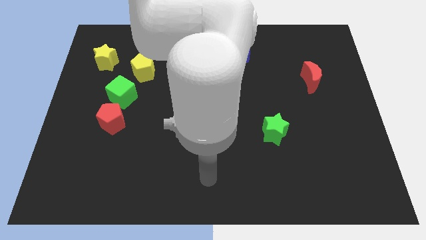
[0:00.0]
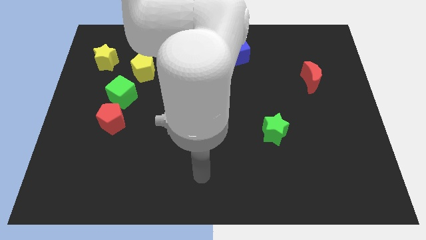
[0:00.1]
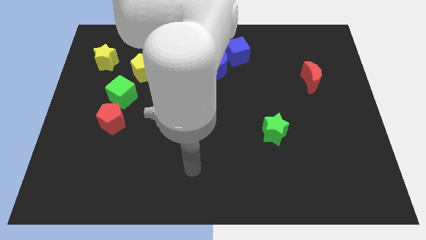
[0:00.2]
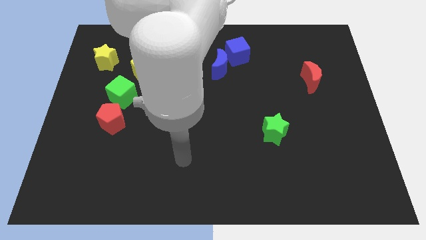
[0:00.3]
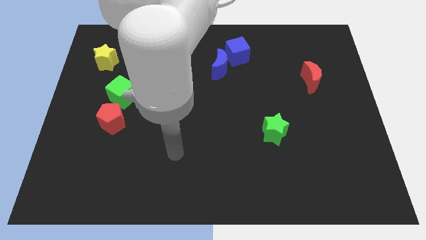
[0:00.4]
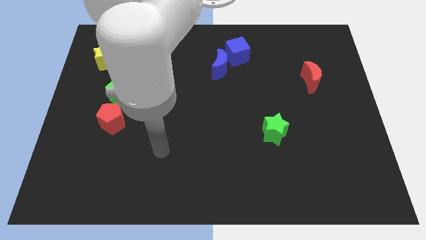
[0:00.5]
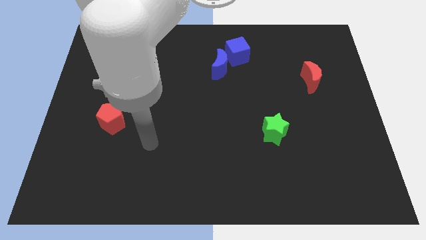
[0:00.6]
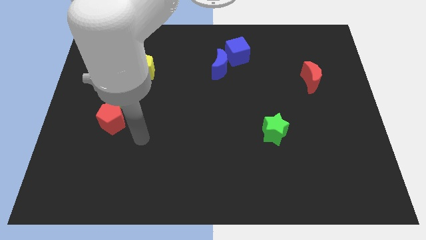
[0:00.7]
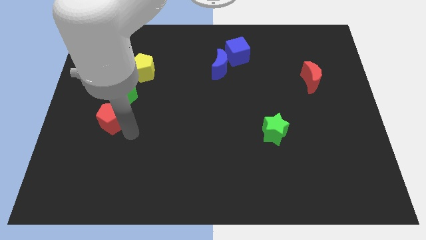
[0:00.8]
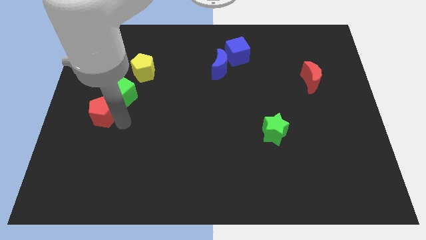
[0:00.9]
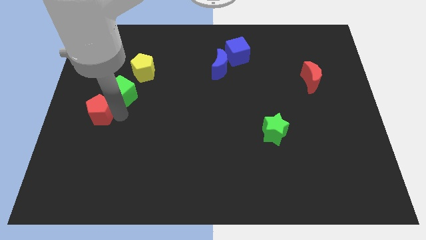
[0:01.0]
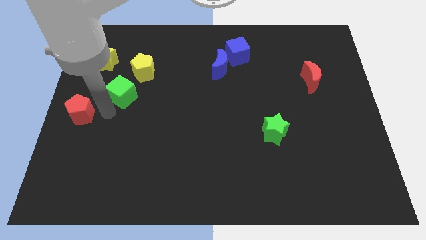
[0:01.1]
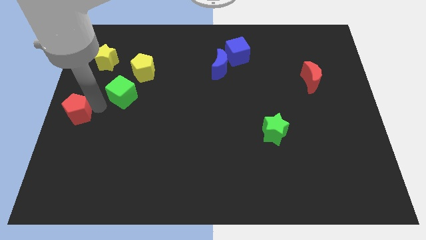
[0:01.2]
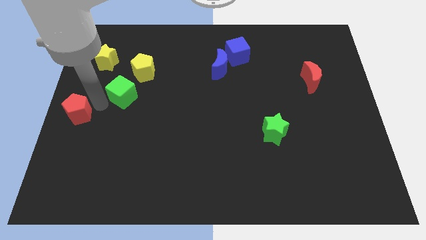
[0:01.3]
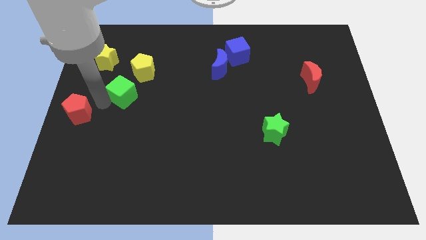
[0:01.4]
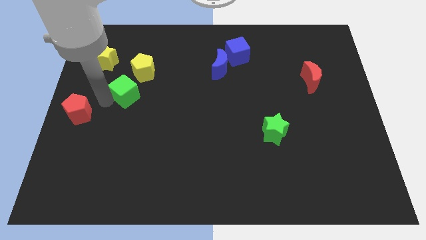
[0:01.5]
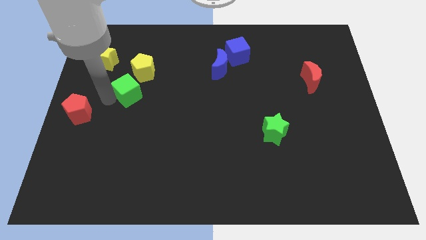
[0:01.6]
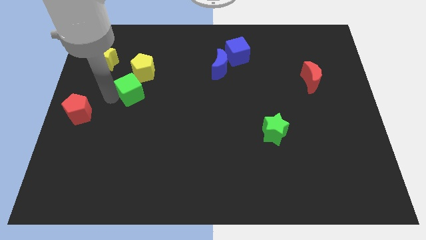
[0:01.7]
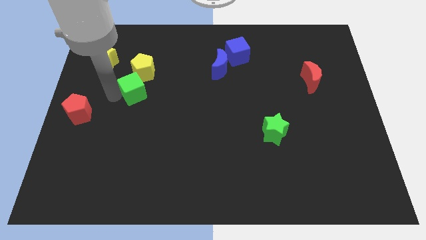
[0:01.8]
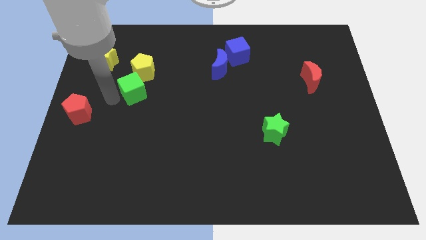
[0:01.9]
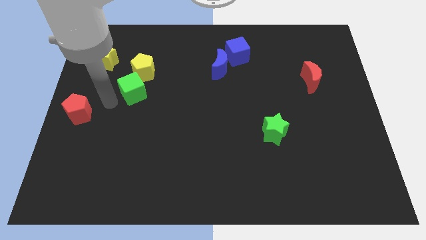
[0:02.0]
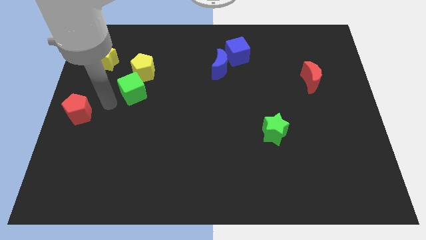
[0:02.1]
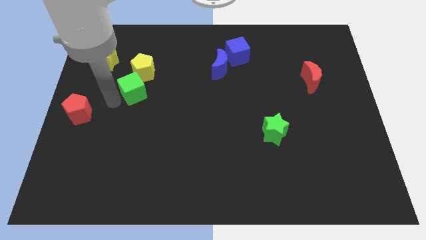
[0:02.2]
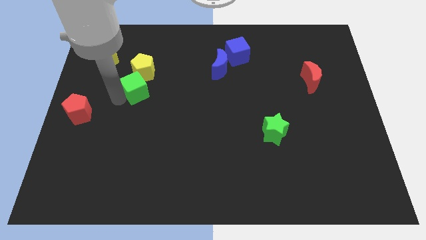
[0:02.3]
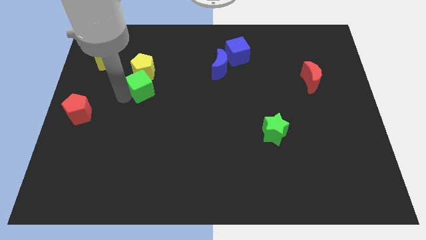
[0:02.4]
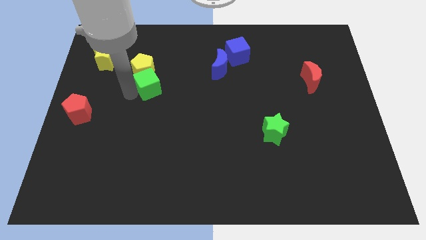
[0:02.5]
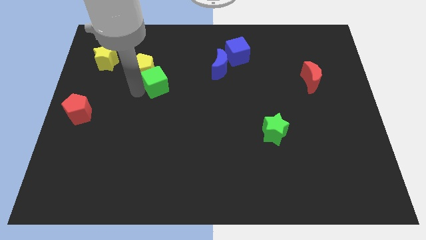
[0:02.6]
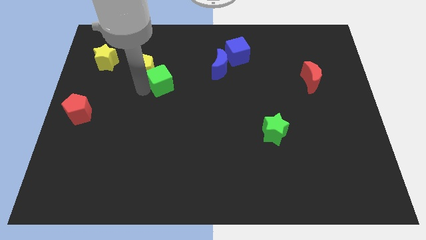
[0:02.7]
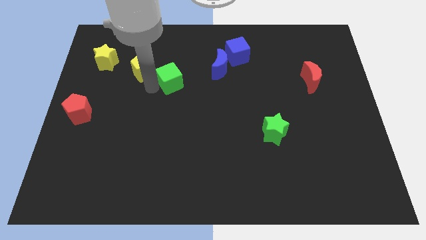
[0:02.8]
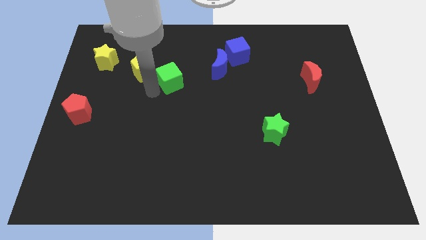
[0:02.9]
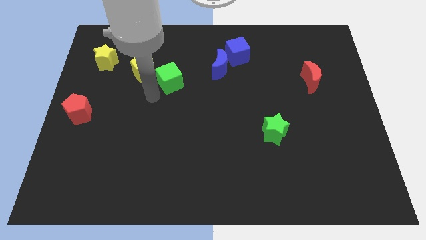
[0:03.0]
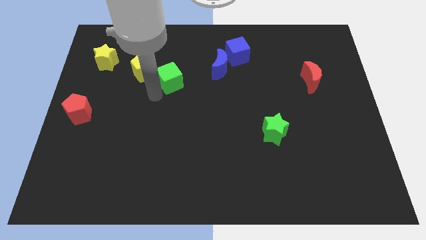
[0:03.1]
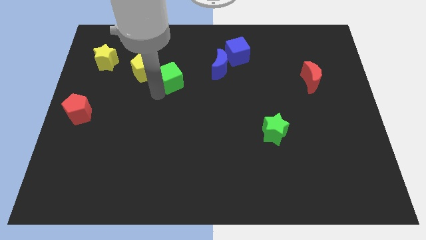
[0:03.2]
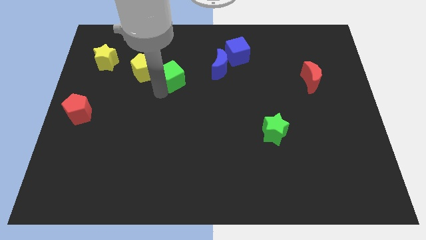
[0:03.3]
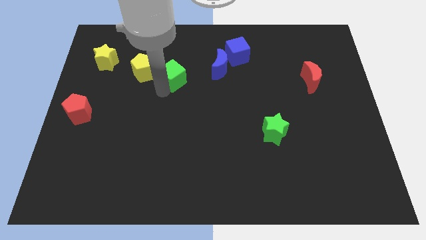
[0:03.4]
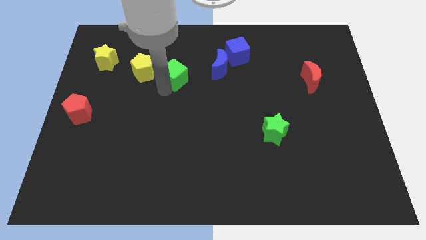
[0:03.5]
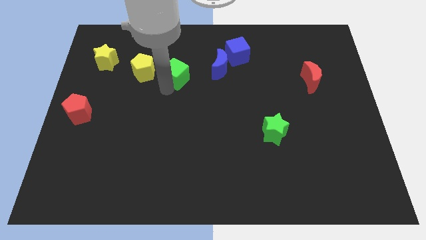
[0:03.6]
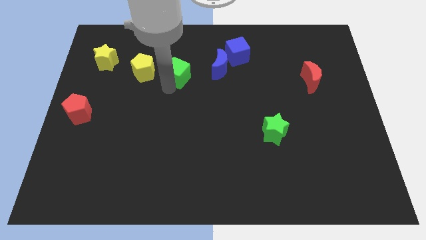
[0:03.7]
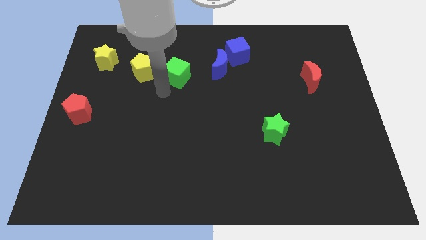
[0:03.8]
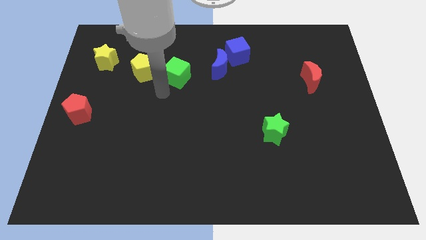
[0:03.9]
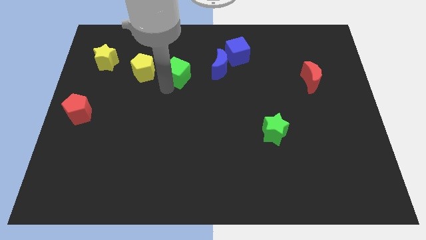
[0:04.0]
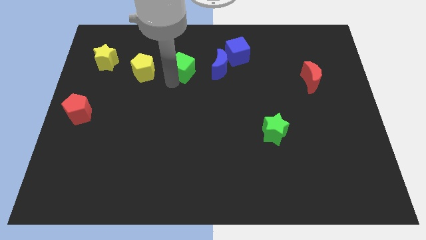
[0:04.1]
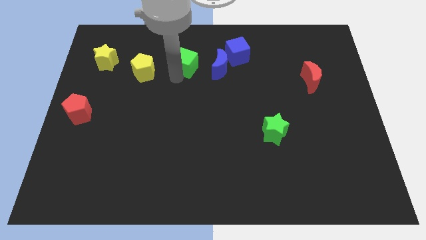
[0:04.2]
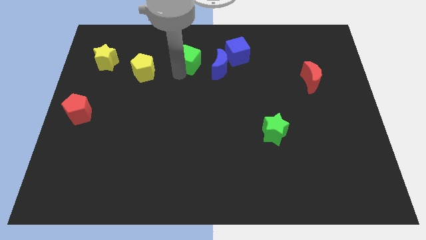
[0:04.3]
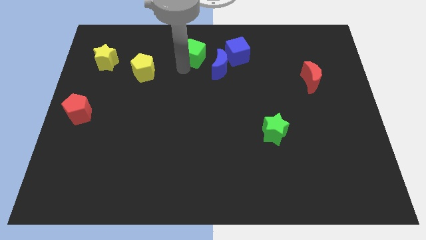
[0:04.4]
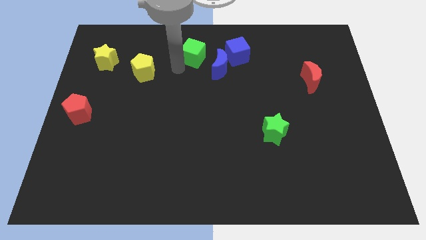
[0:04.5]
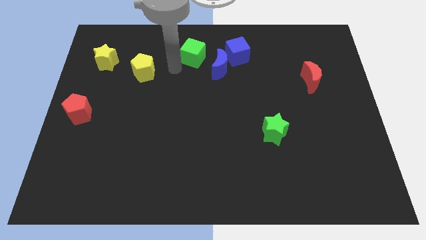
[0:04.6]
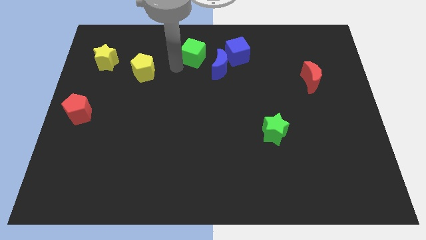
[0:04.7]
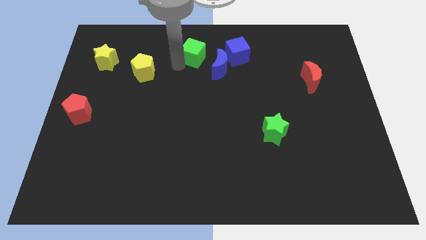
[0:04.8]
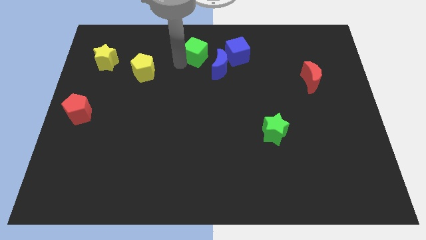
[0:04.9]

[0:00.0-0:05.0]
put the green cube to the top side

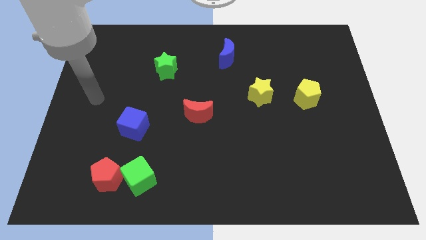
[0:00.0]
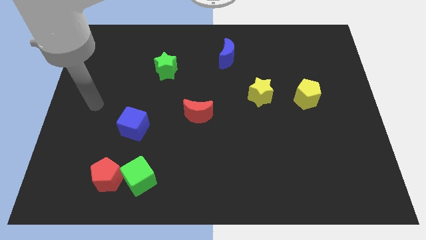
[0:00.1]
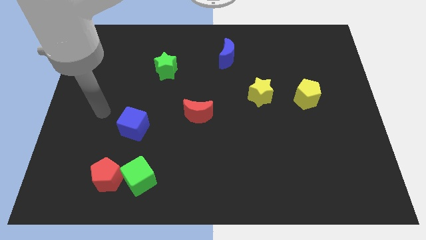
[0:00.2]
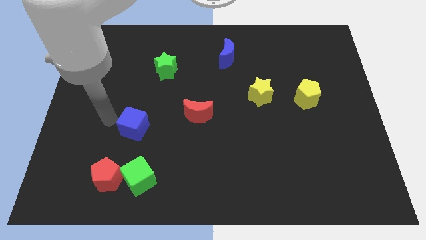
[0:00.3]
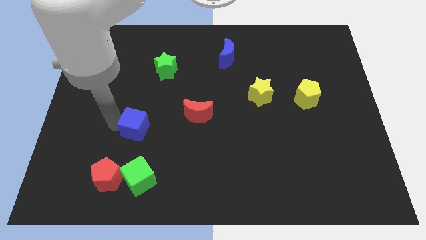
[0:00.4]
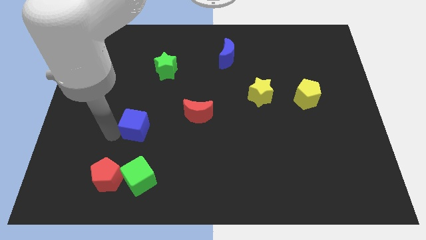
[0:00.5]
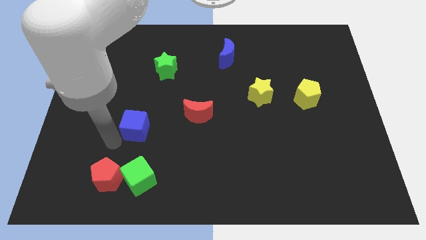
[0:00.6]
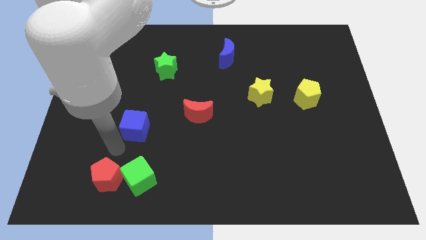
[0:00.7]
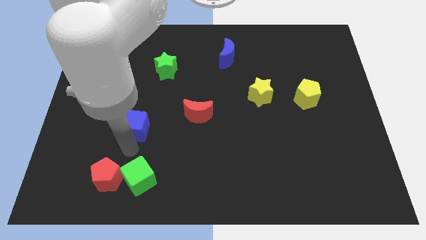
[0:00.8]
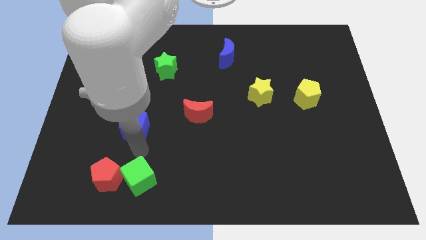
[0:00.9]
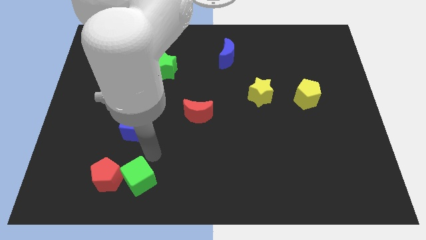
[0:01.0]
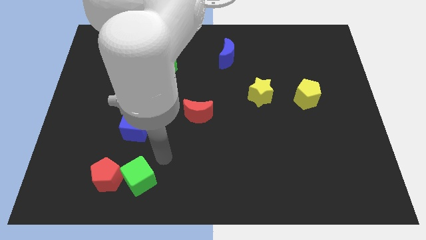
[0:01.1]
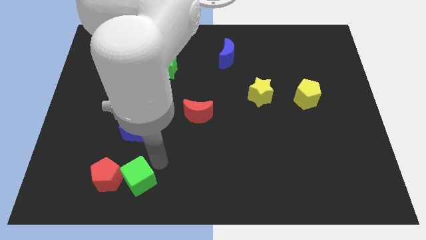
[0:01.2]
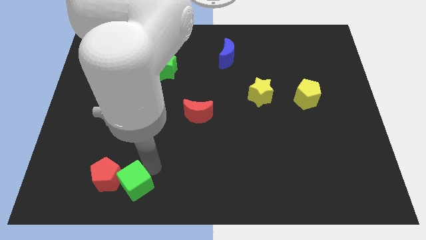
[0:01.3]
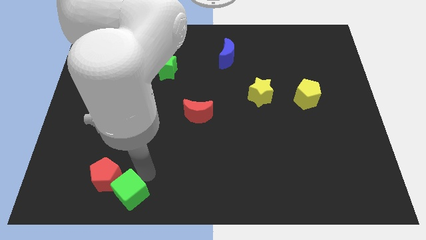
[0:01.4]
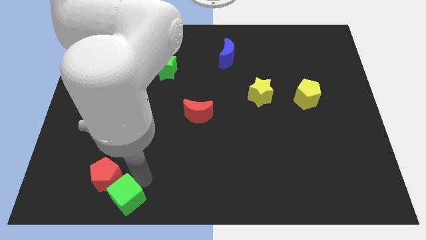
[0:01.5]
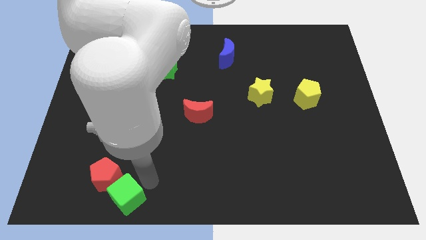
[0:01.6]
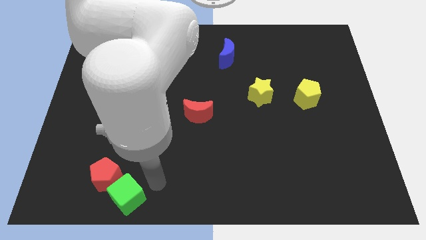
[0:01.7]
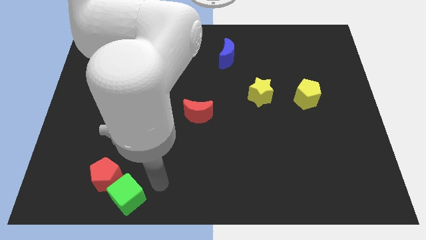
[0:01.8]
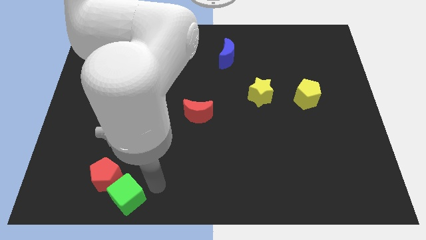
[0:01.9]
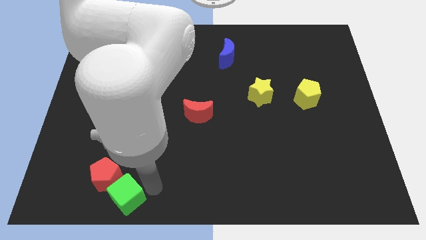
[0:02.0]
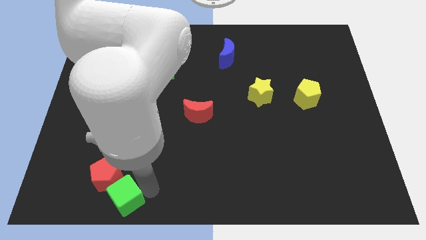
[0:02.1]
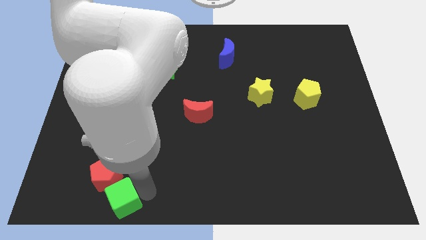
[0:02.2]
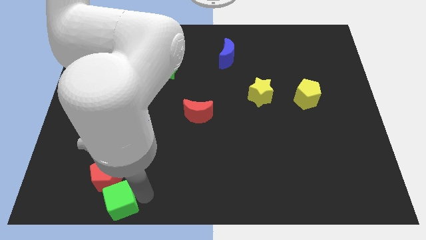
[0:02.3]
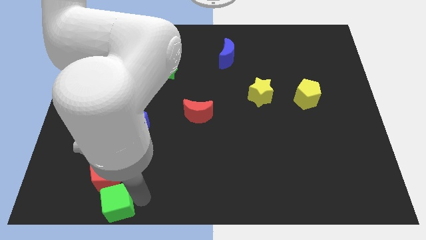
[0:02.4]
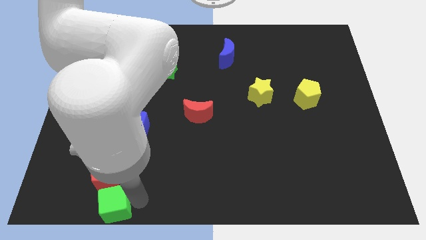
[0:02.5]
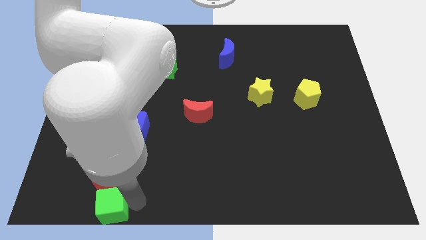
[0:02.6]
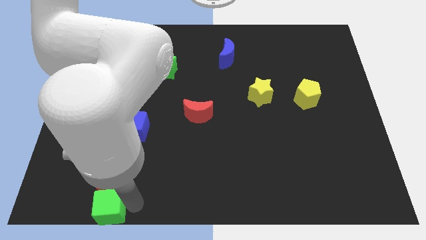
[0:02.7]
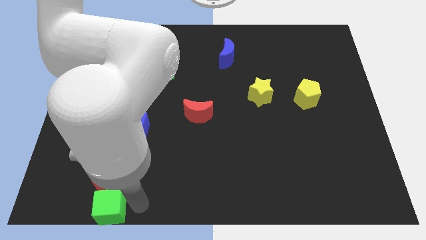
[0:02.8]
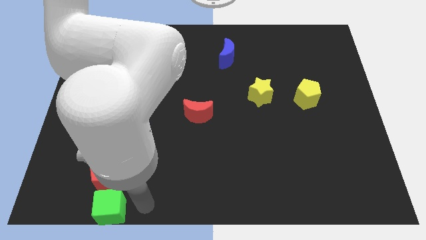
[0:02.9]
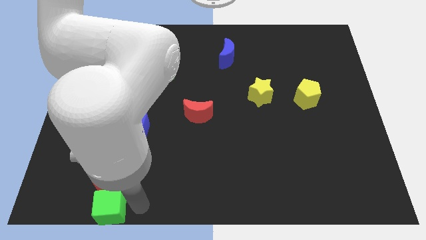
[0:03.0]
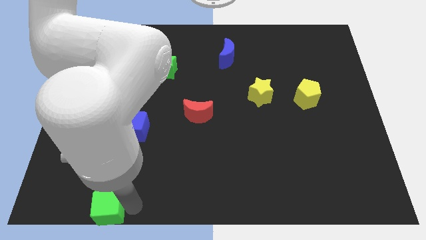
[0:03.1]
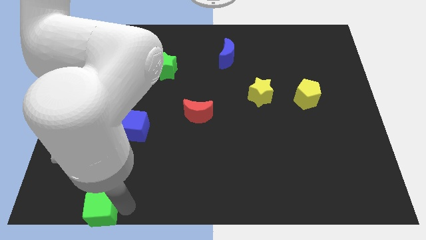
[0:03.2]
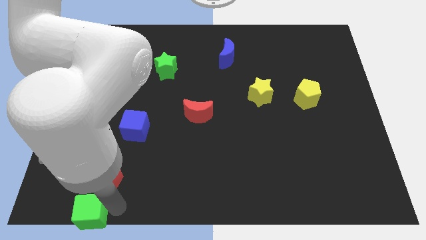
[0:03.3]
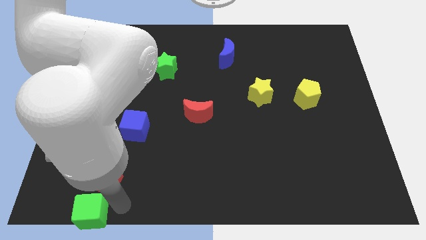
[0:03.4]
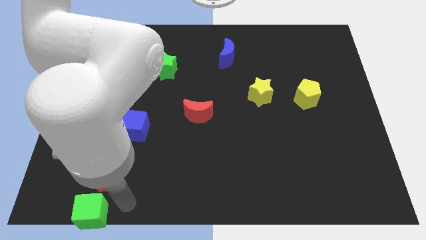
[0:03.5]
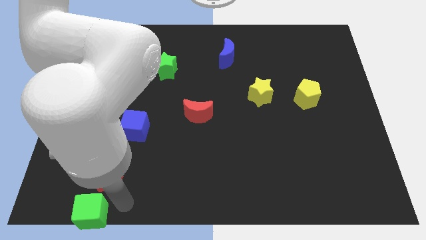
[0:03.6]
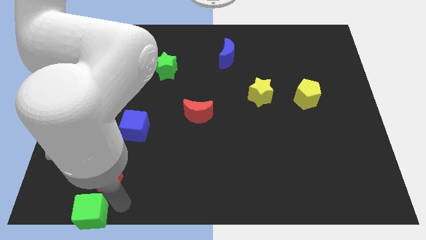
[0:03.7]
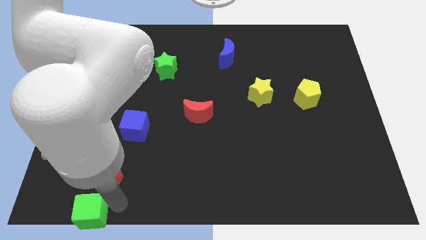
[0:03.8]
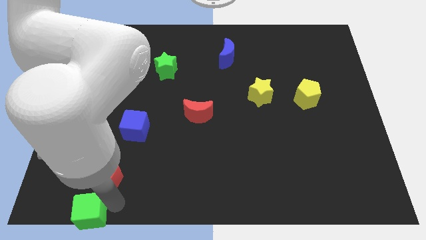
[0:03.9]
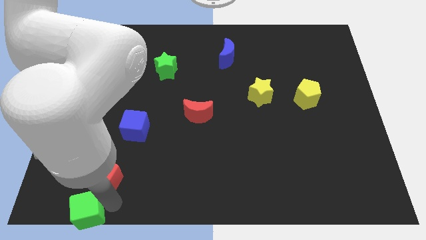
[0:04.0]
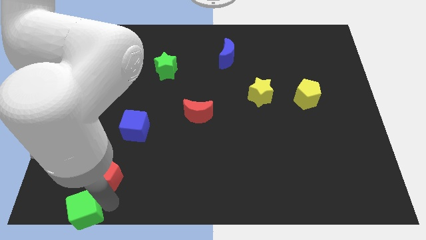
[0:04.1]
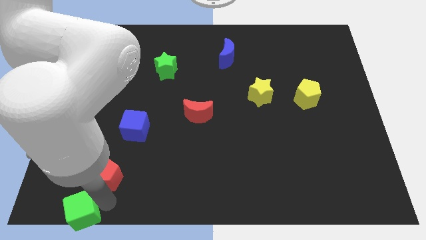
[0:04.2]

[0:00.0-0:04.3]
move the green cube to the bottom left corner
